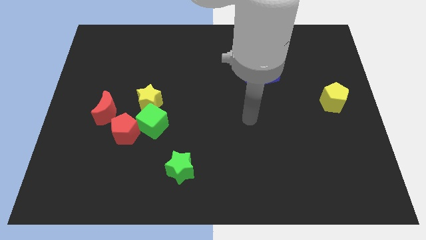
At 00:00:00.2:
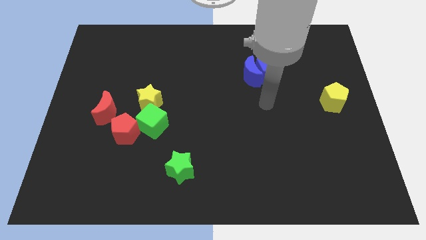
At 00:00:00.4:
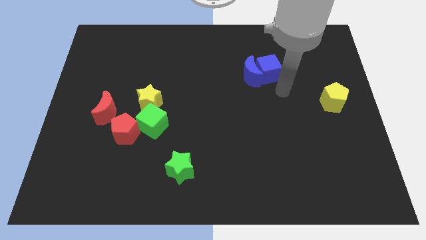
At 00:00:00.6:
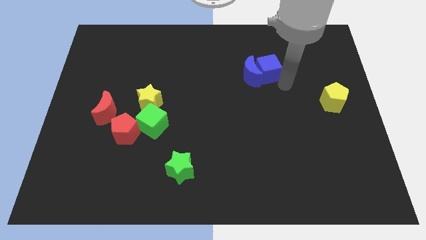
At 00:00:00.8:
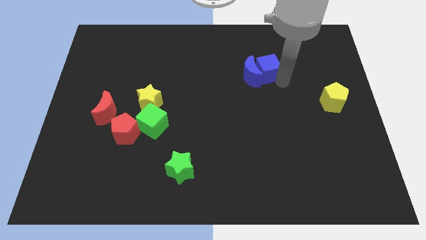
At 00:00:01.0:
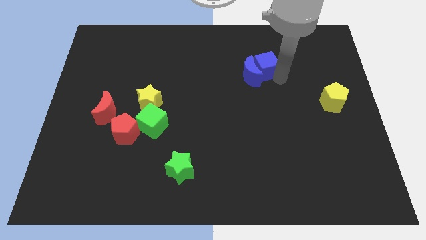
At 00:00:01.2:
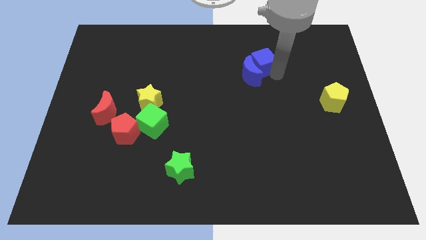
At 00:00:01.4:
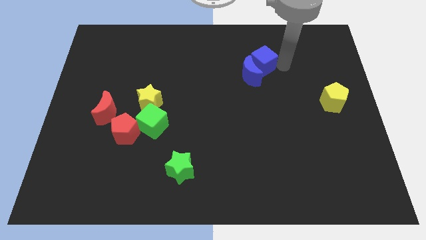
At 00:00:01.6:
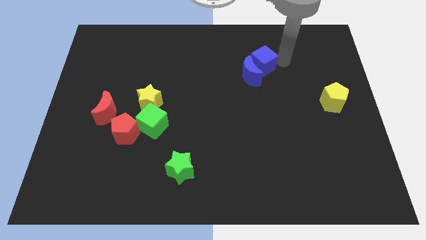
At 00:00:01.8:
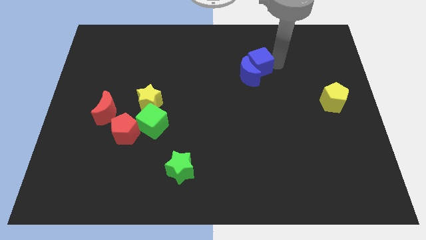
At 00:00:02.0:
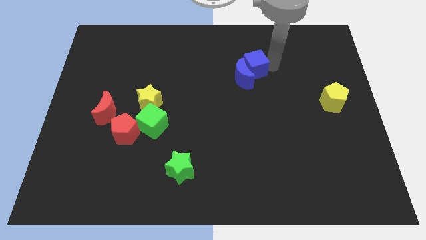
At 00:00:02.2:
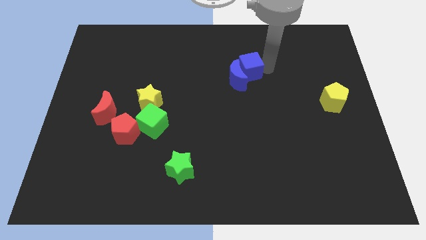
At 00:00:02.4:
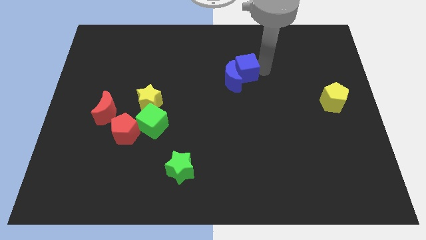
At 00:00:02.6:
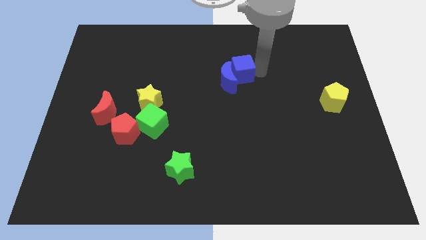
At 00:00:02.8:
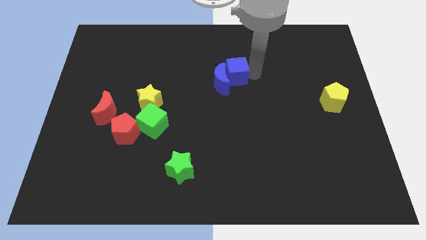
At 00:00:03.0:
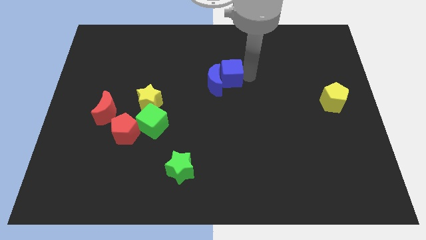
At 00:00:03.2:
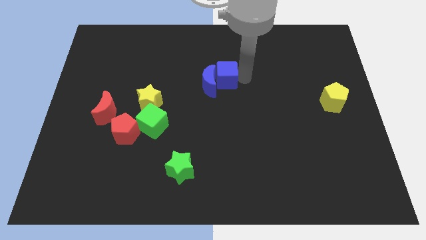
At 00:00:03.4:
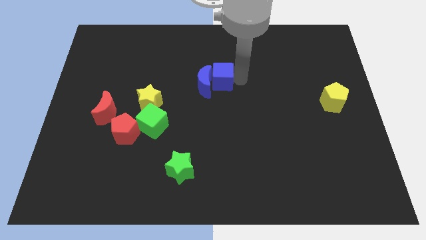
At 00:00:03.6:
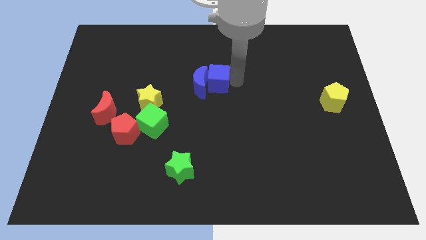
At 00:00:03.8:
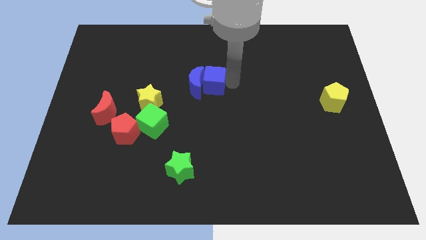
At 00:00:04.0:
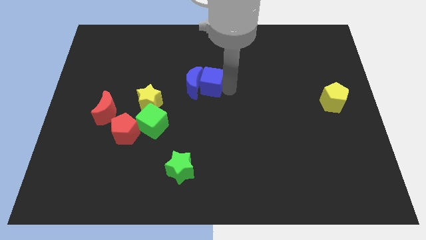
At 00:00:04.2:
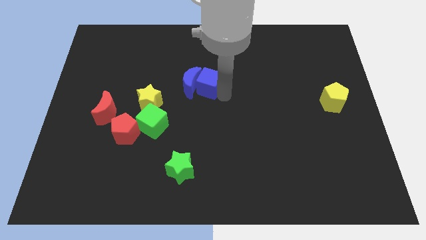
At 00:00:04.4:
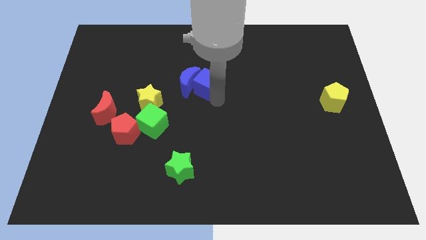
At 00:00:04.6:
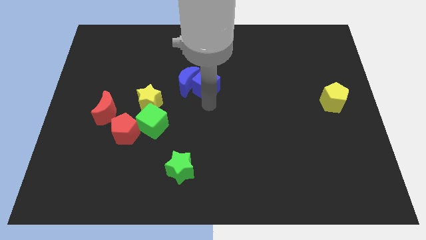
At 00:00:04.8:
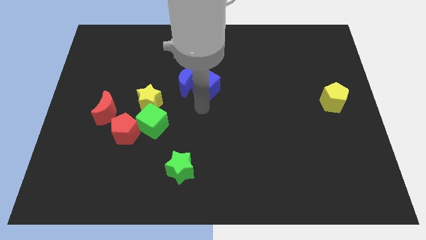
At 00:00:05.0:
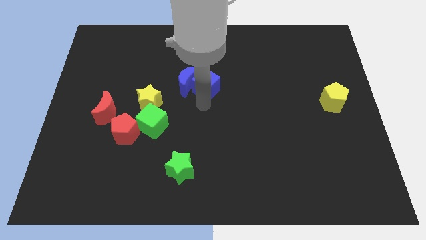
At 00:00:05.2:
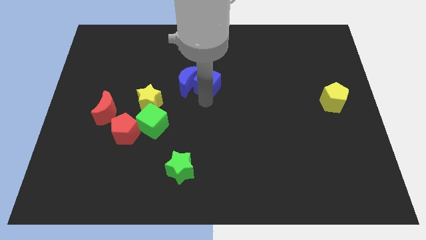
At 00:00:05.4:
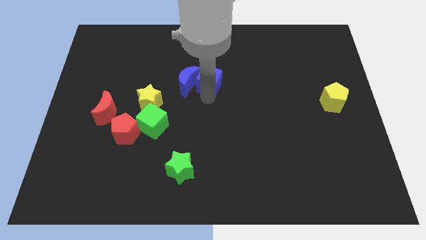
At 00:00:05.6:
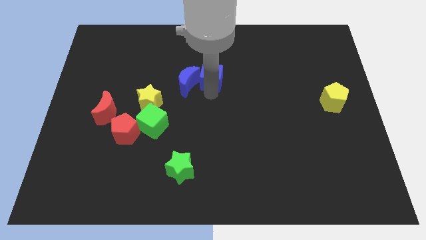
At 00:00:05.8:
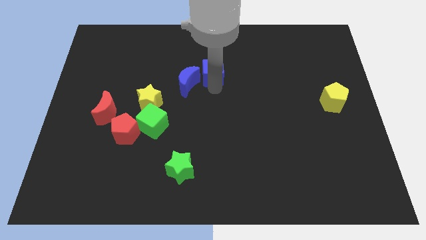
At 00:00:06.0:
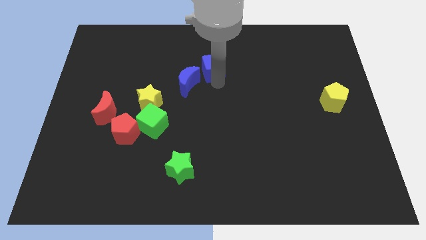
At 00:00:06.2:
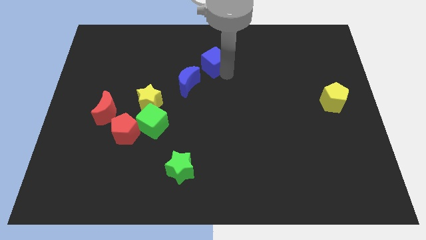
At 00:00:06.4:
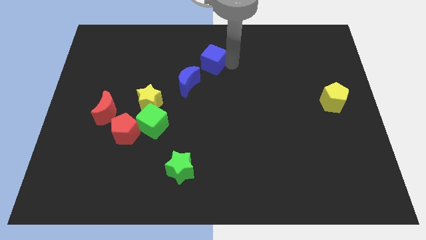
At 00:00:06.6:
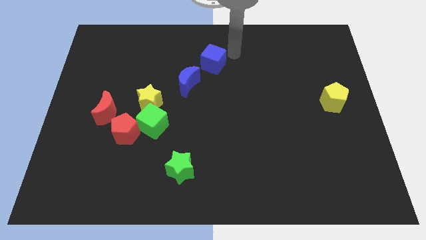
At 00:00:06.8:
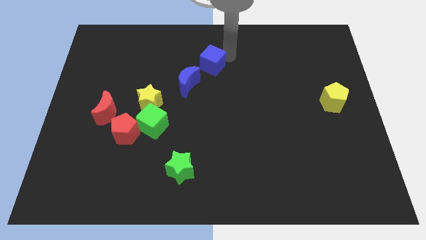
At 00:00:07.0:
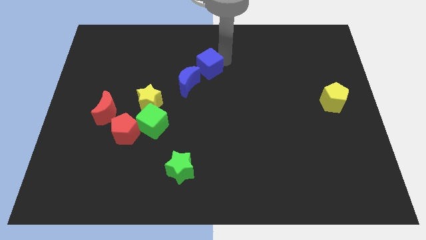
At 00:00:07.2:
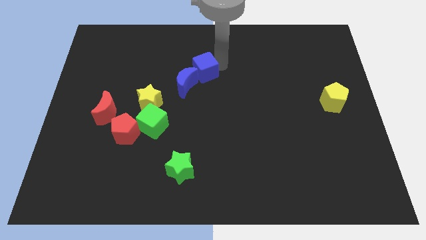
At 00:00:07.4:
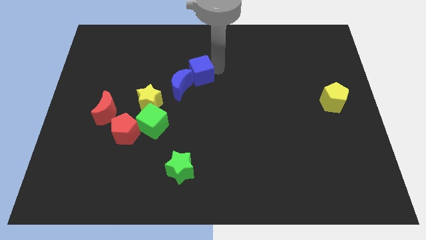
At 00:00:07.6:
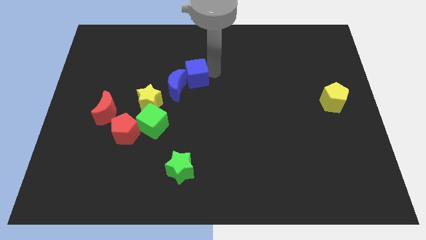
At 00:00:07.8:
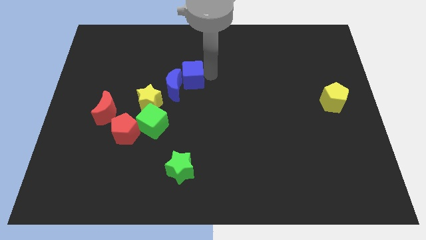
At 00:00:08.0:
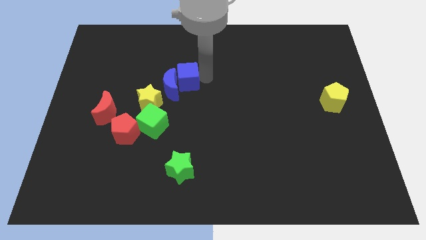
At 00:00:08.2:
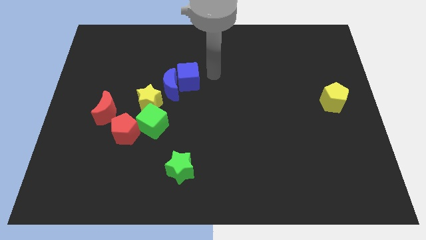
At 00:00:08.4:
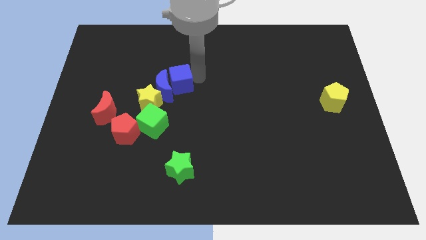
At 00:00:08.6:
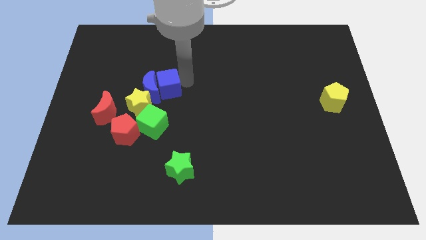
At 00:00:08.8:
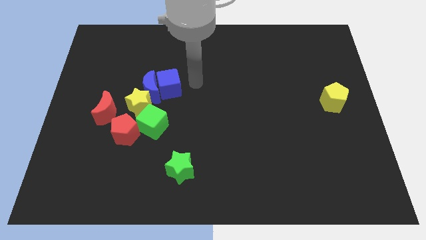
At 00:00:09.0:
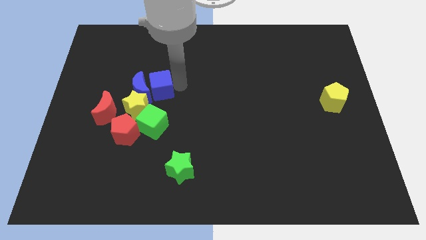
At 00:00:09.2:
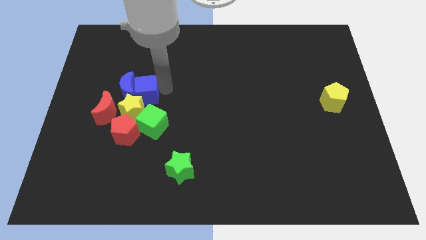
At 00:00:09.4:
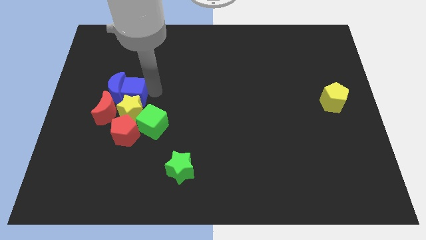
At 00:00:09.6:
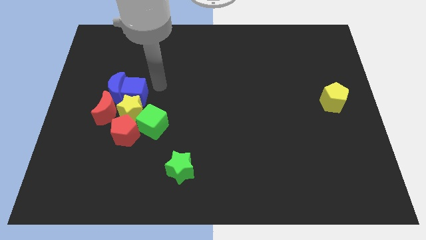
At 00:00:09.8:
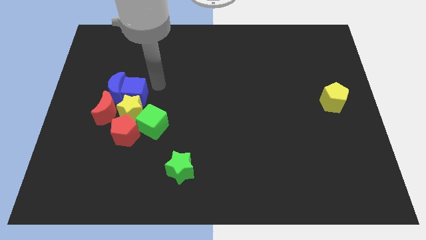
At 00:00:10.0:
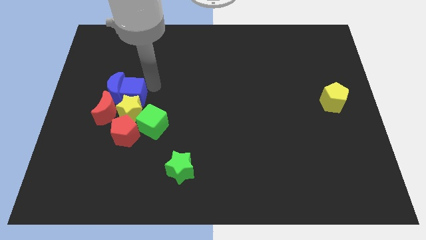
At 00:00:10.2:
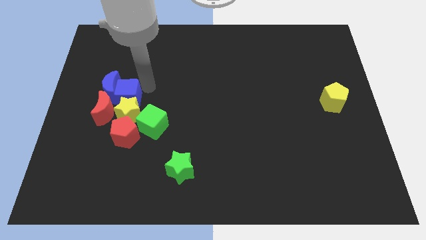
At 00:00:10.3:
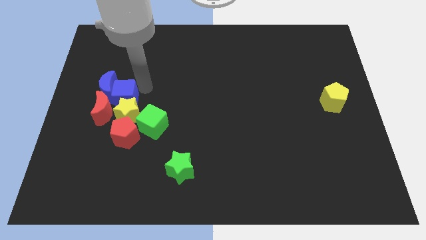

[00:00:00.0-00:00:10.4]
move the blue cube next to the red moon

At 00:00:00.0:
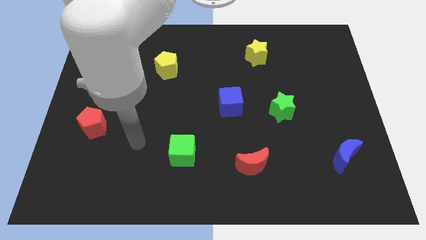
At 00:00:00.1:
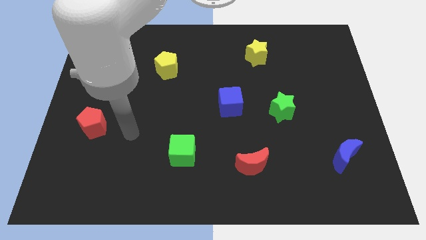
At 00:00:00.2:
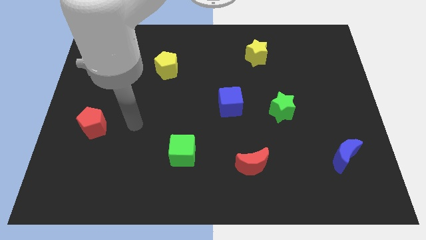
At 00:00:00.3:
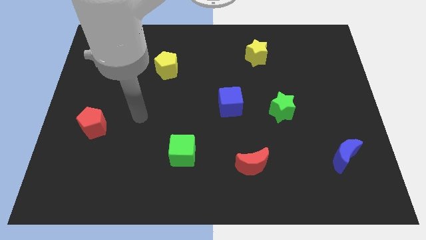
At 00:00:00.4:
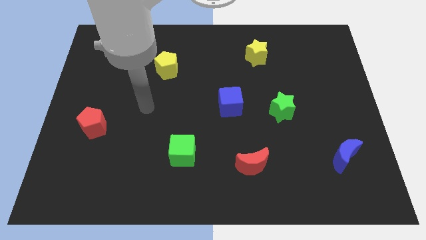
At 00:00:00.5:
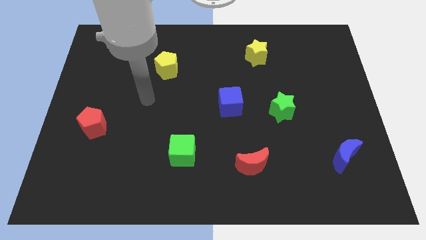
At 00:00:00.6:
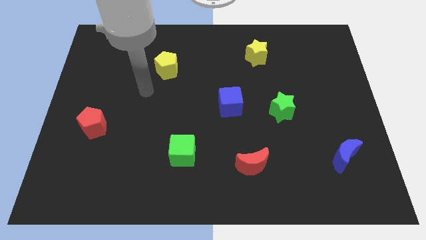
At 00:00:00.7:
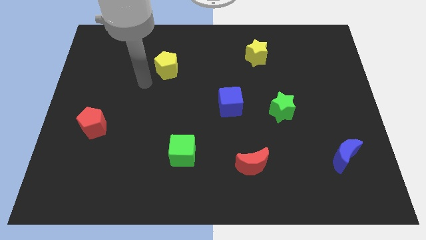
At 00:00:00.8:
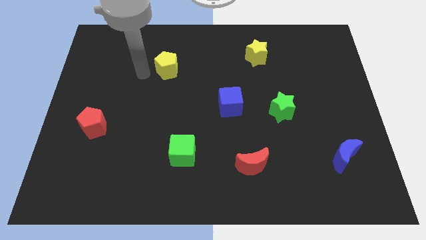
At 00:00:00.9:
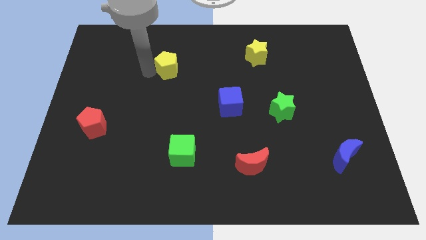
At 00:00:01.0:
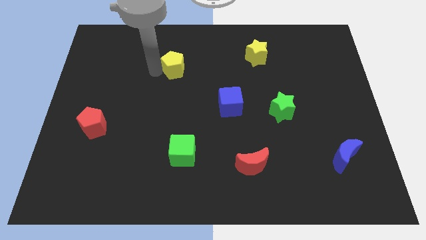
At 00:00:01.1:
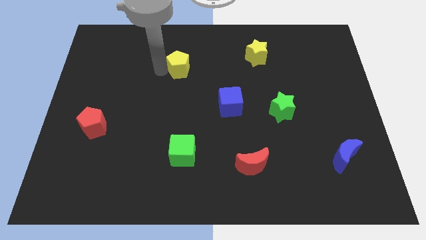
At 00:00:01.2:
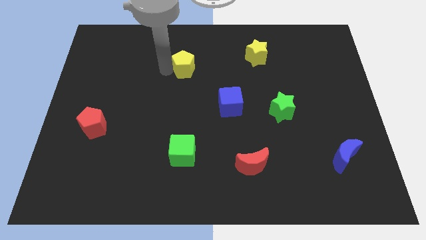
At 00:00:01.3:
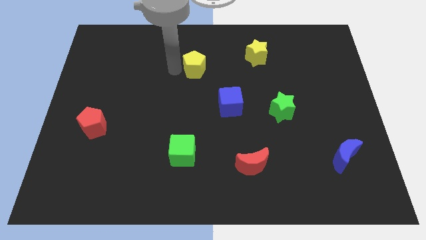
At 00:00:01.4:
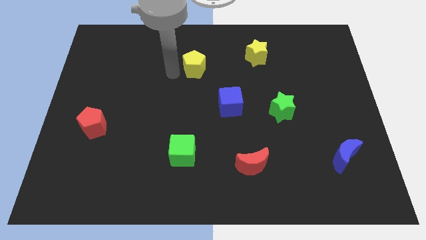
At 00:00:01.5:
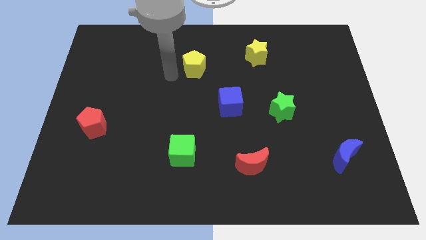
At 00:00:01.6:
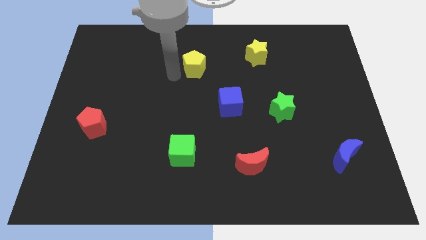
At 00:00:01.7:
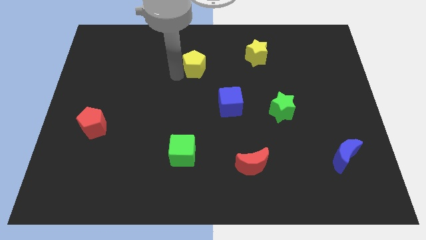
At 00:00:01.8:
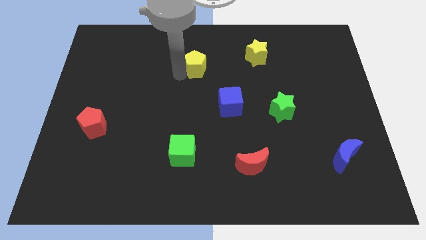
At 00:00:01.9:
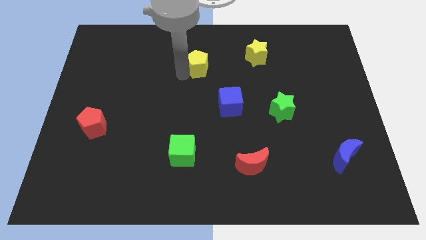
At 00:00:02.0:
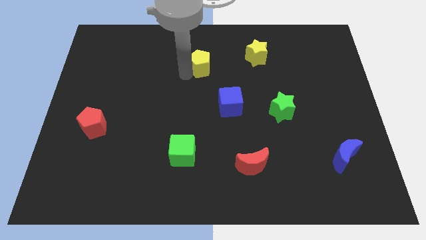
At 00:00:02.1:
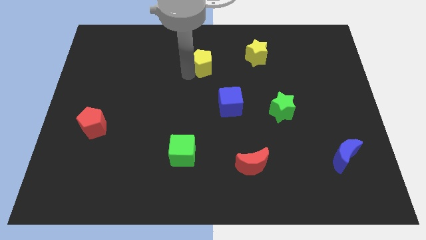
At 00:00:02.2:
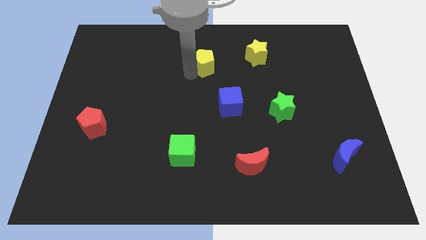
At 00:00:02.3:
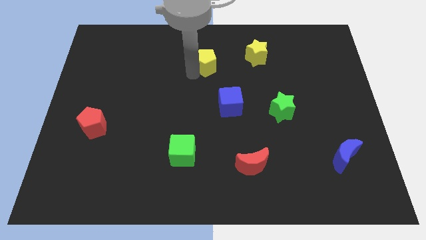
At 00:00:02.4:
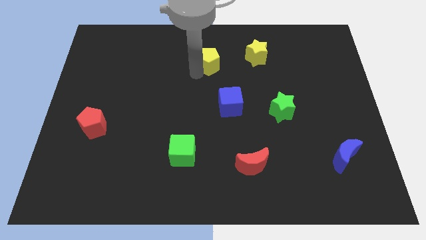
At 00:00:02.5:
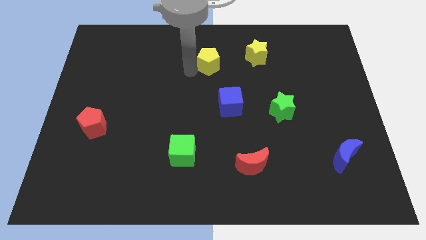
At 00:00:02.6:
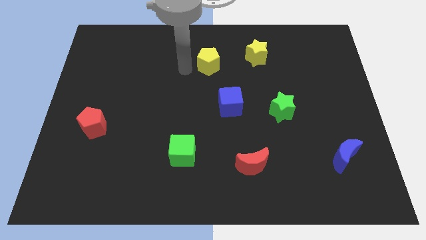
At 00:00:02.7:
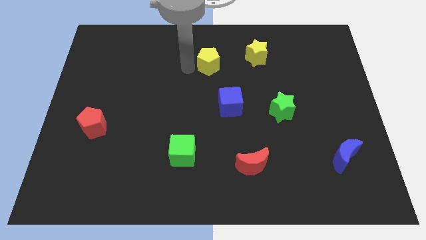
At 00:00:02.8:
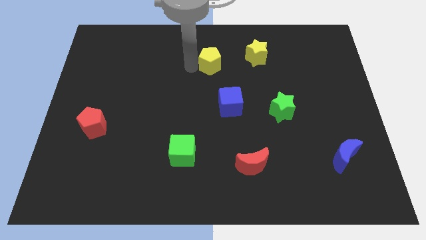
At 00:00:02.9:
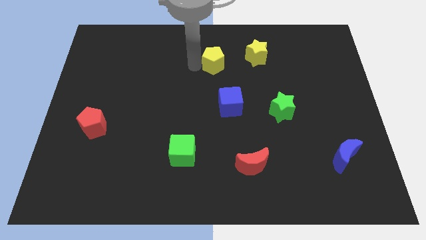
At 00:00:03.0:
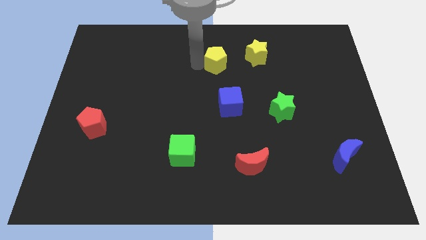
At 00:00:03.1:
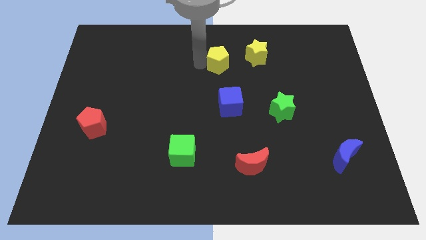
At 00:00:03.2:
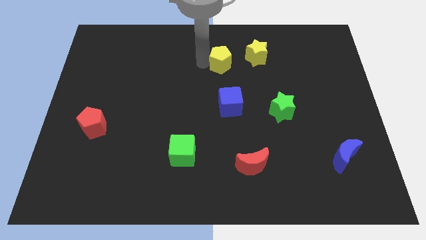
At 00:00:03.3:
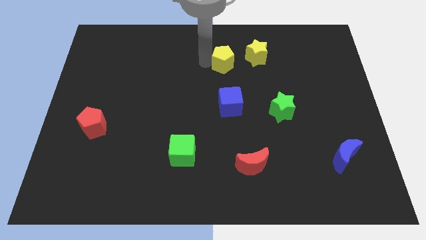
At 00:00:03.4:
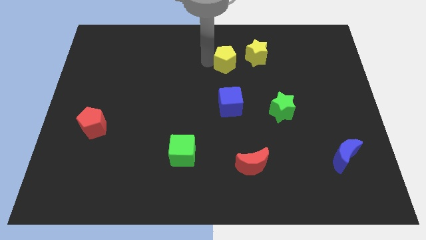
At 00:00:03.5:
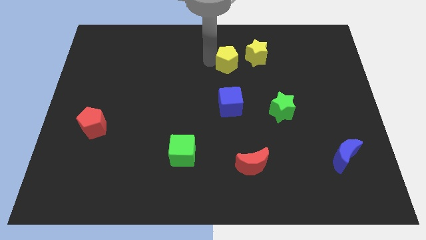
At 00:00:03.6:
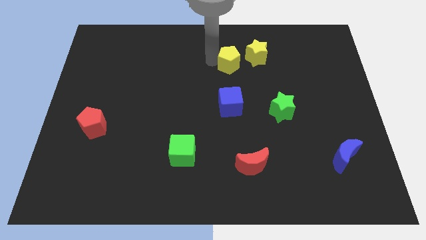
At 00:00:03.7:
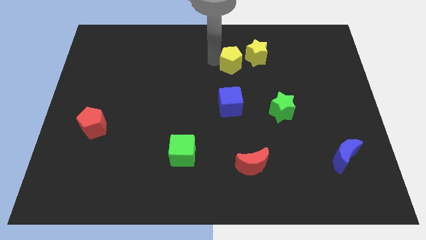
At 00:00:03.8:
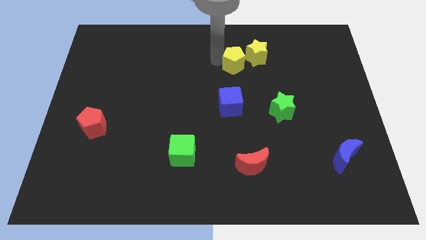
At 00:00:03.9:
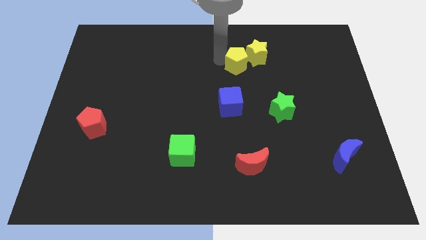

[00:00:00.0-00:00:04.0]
put the yellow pentagon towards the yellow star
